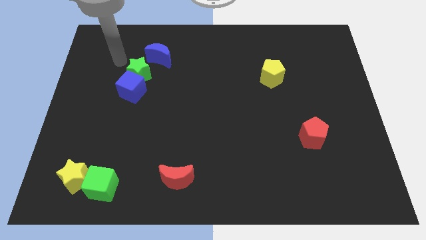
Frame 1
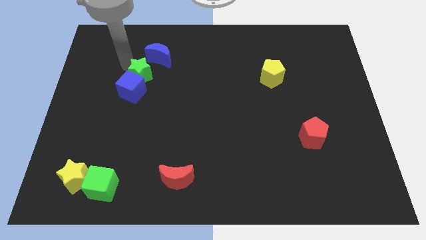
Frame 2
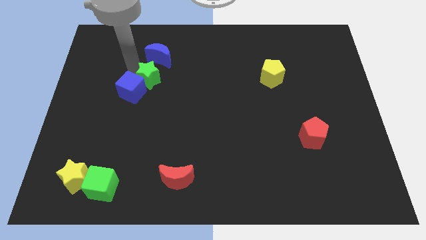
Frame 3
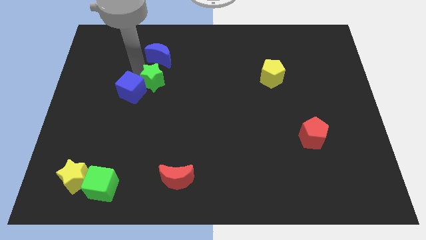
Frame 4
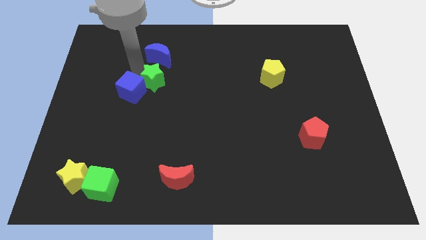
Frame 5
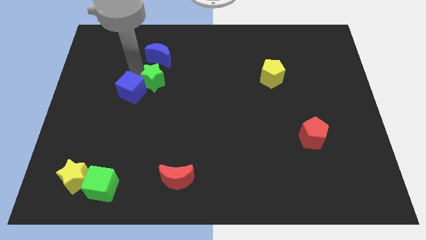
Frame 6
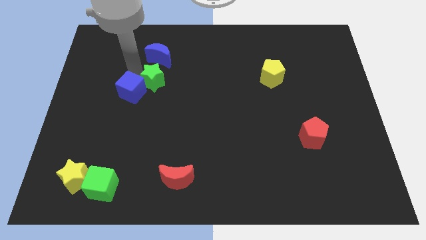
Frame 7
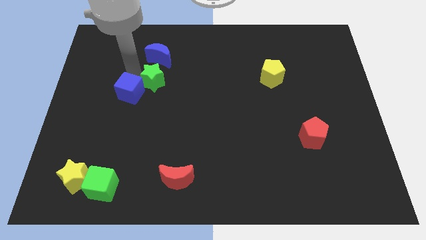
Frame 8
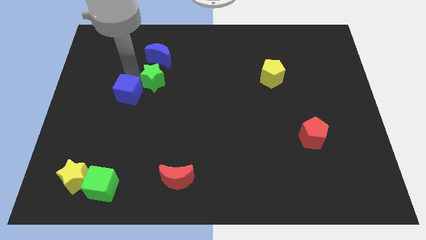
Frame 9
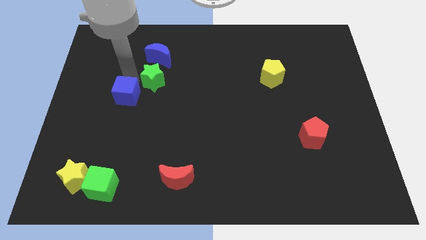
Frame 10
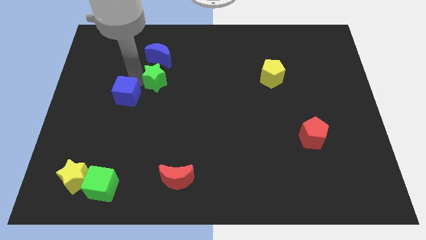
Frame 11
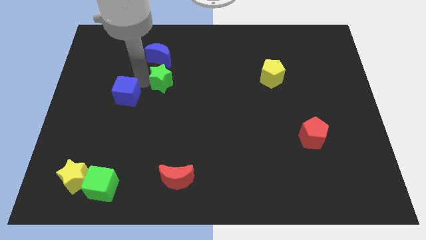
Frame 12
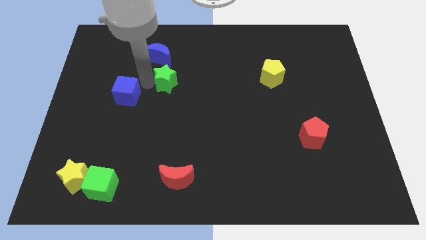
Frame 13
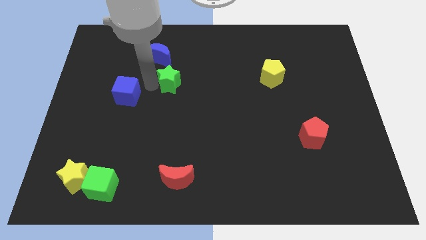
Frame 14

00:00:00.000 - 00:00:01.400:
pull the blue cube apart from the green star

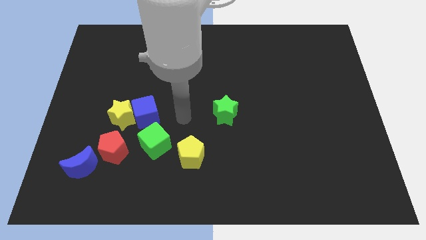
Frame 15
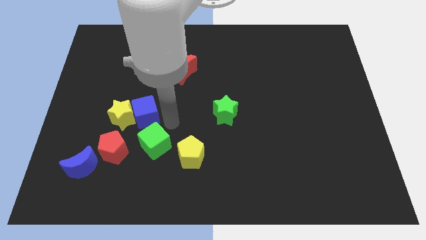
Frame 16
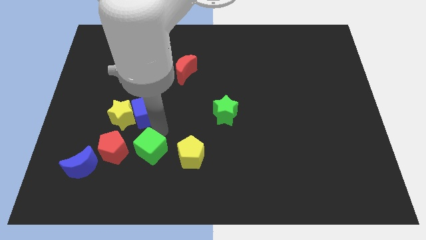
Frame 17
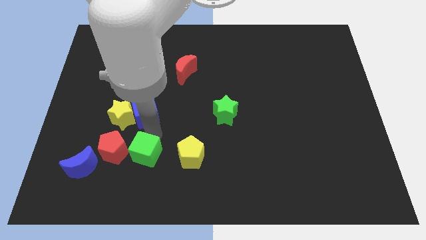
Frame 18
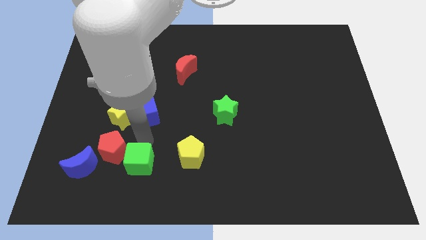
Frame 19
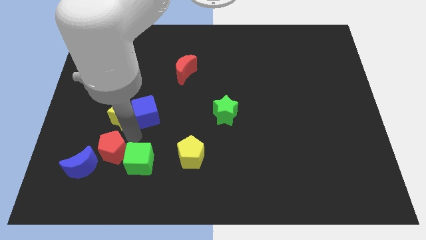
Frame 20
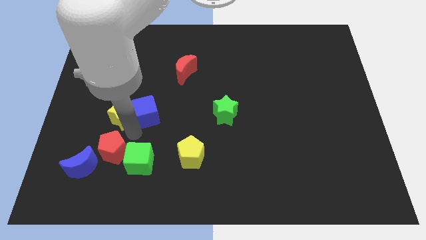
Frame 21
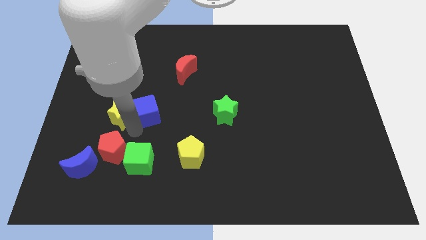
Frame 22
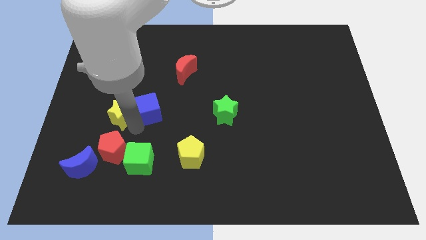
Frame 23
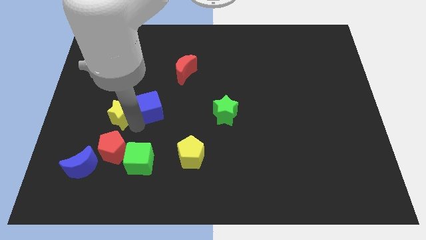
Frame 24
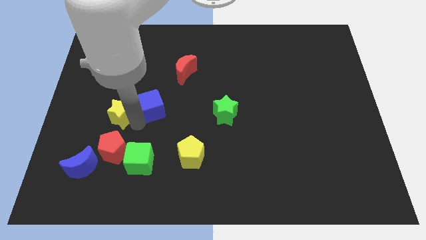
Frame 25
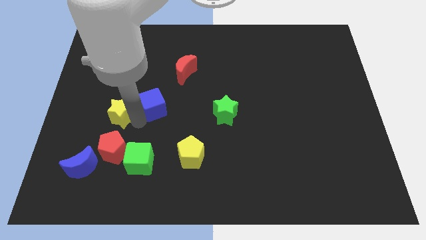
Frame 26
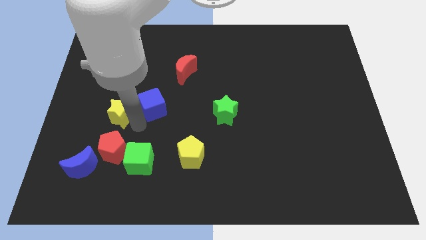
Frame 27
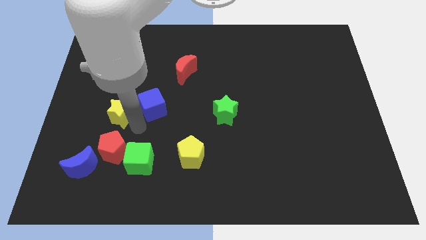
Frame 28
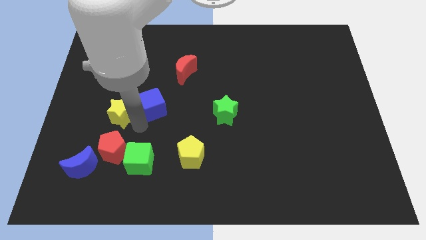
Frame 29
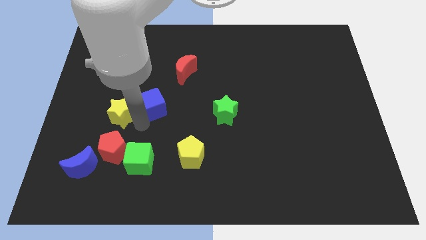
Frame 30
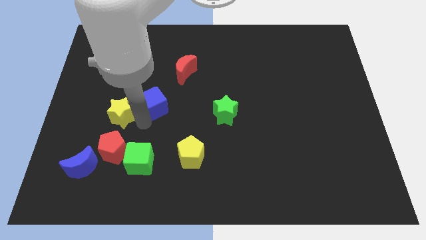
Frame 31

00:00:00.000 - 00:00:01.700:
separate the blue cube from the yellow star and green cube

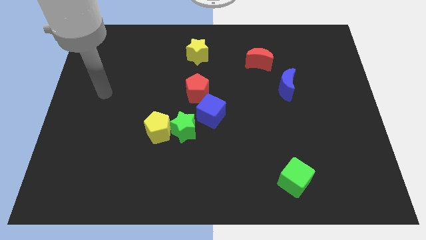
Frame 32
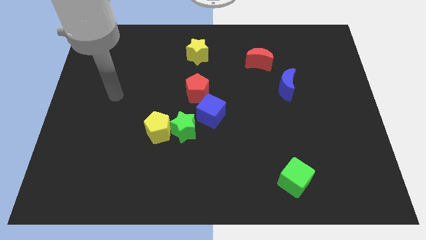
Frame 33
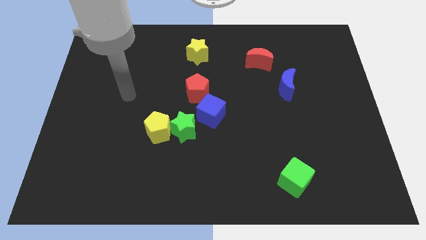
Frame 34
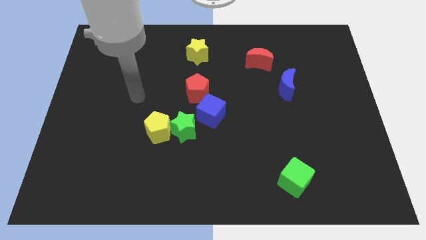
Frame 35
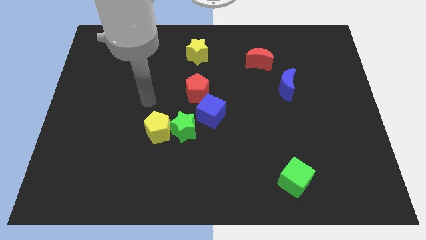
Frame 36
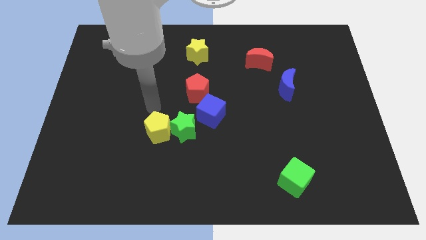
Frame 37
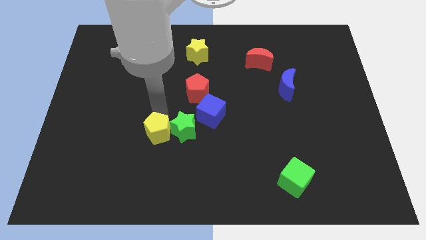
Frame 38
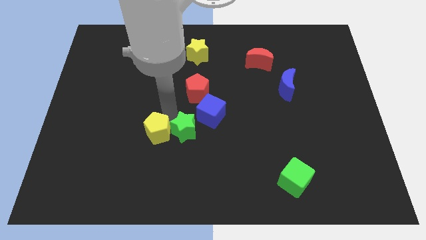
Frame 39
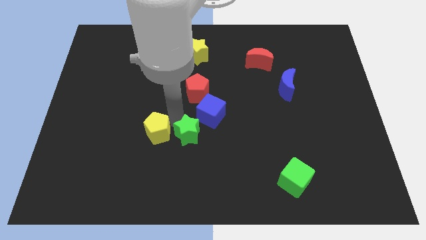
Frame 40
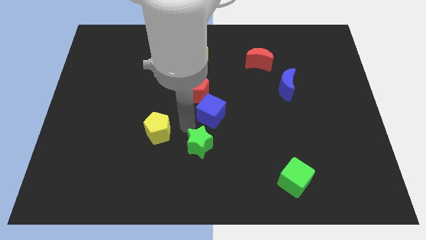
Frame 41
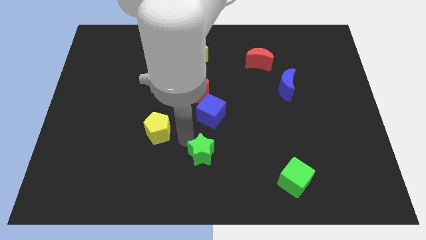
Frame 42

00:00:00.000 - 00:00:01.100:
move the yellow pentagon away from the green star

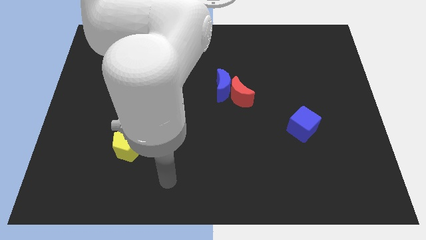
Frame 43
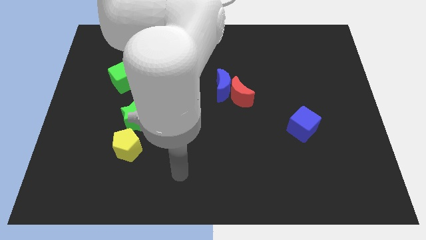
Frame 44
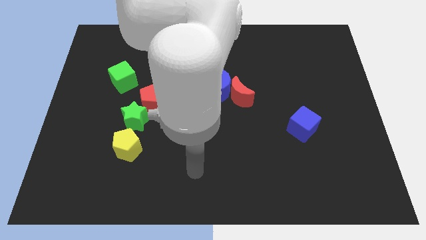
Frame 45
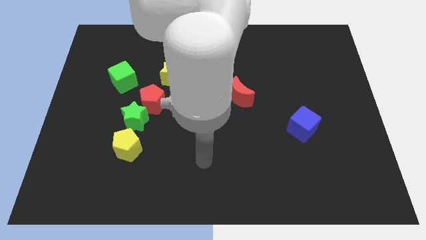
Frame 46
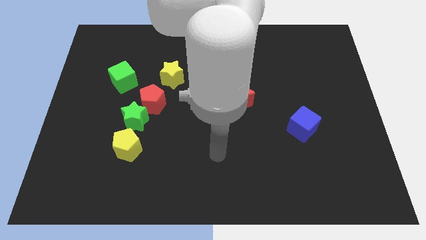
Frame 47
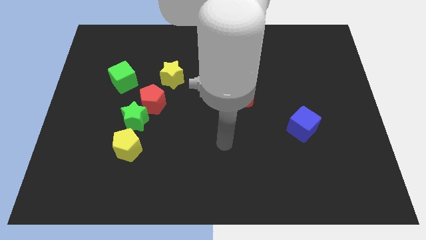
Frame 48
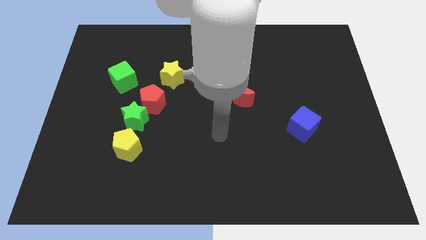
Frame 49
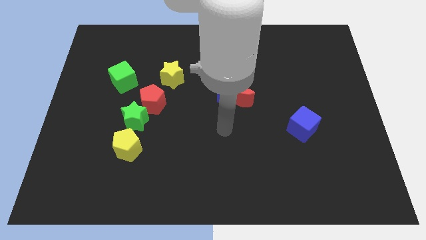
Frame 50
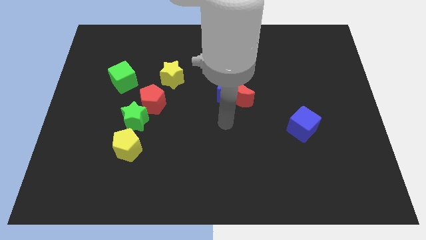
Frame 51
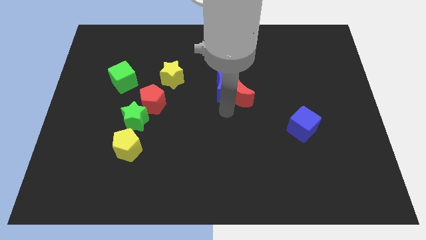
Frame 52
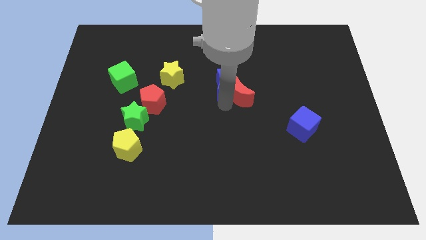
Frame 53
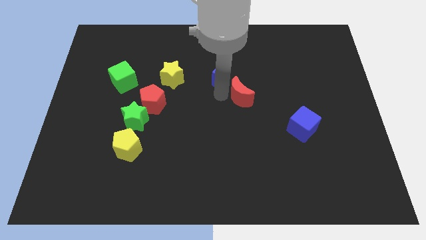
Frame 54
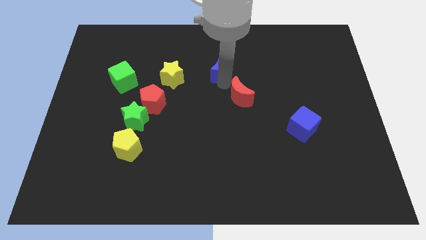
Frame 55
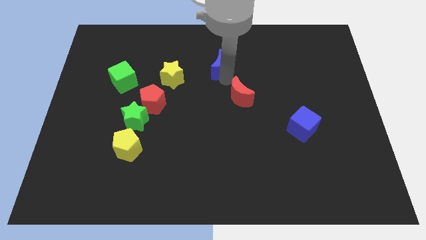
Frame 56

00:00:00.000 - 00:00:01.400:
pull the red moon apart from the blue moon

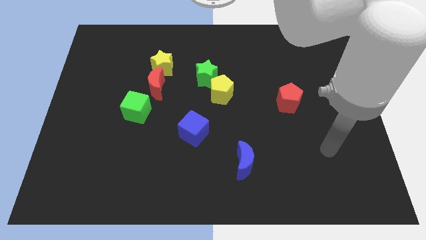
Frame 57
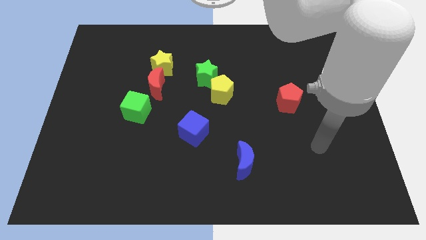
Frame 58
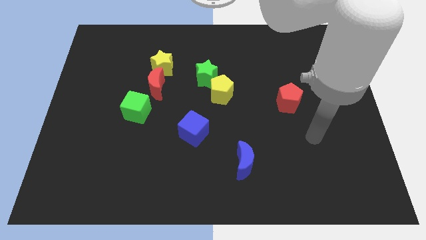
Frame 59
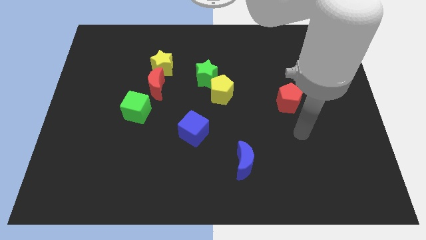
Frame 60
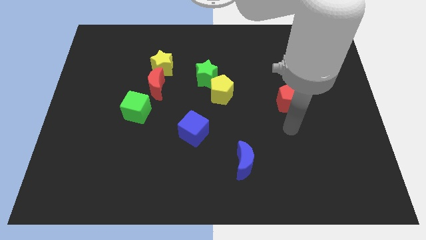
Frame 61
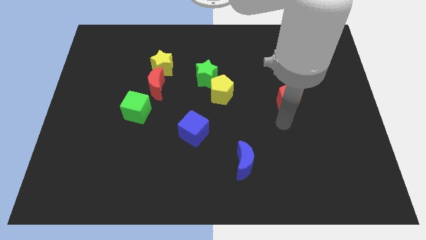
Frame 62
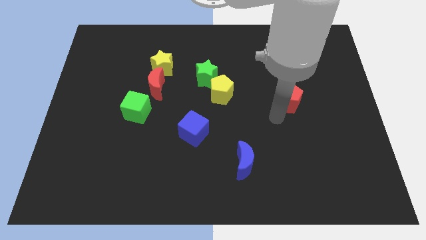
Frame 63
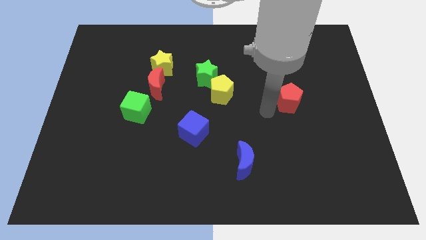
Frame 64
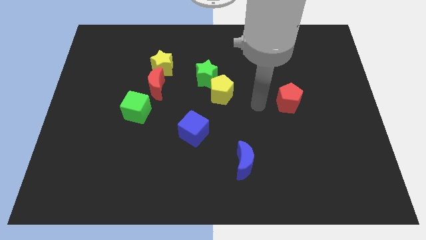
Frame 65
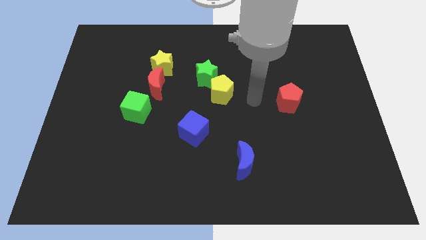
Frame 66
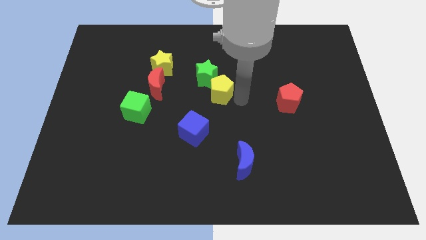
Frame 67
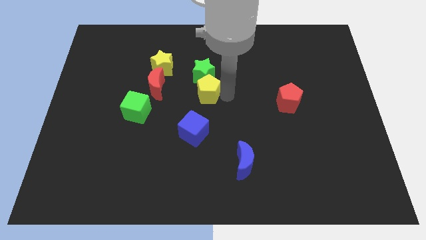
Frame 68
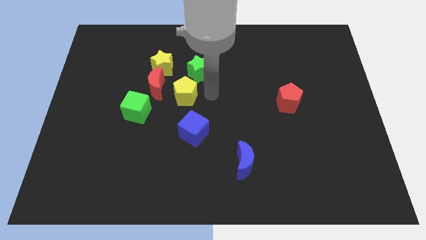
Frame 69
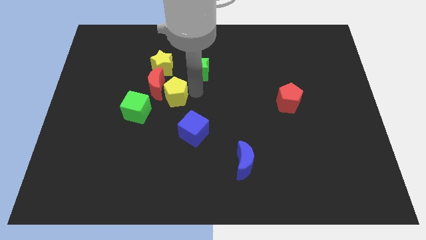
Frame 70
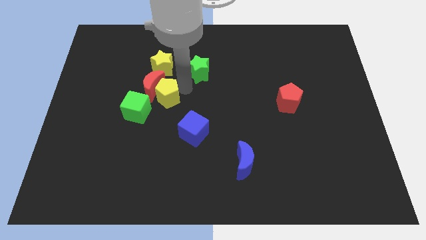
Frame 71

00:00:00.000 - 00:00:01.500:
pull the green star apart from the yellow pentagon

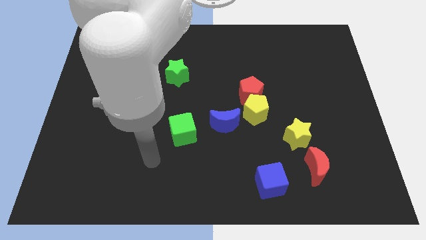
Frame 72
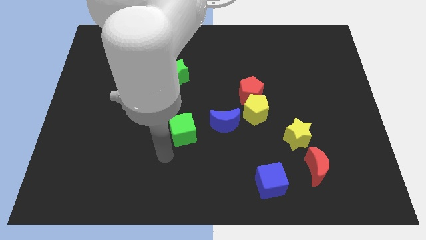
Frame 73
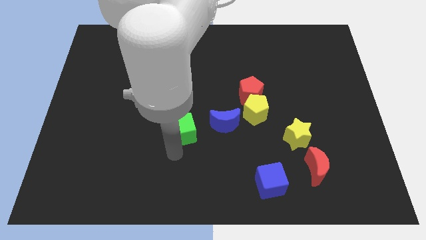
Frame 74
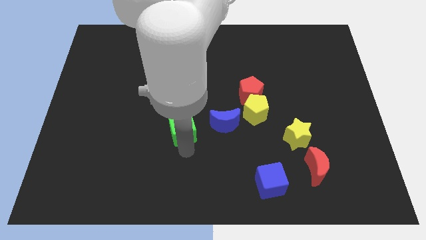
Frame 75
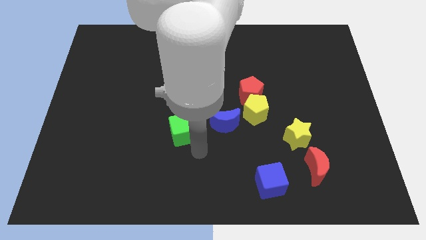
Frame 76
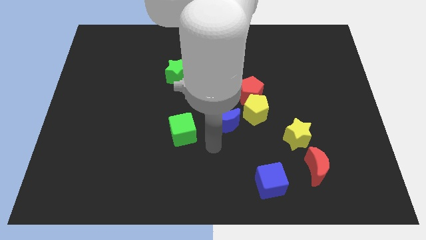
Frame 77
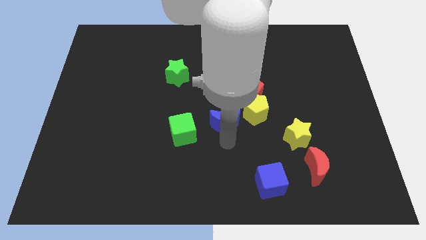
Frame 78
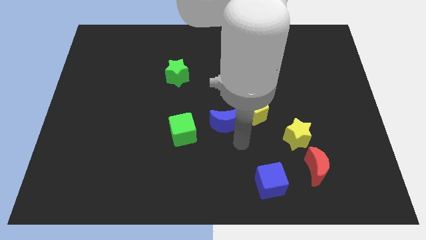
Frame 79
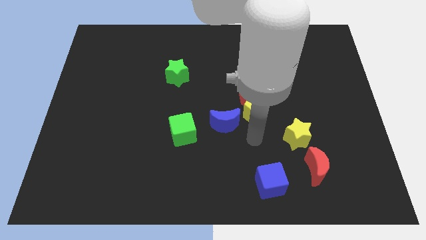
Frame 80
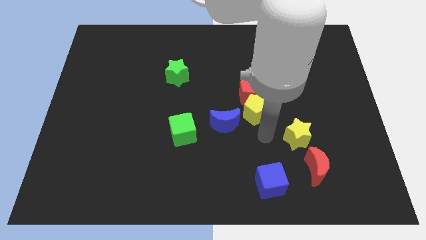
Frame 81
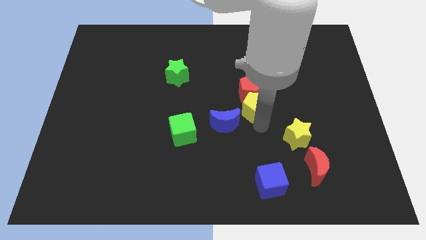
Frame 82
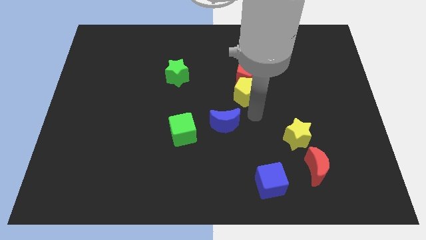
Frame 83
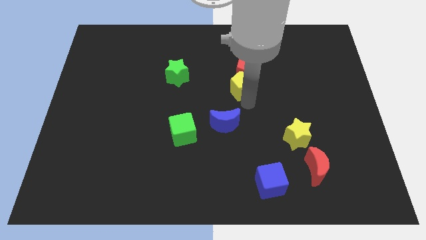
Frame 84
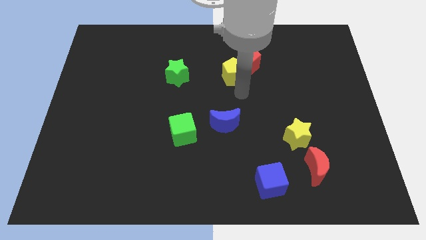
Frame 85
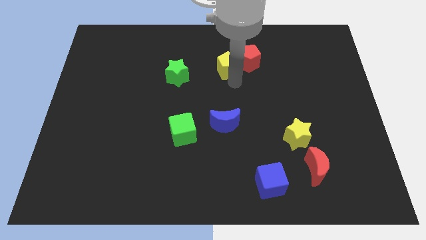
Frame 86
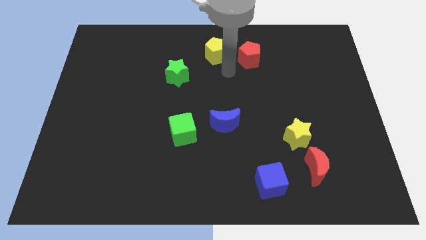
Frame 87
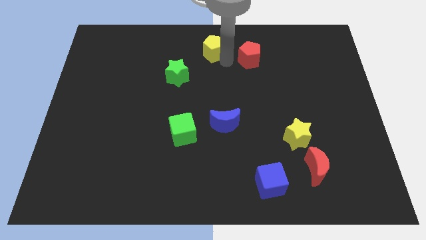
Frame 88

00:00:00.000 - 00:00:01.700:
move the red pentagon away from the yellow pentagon

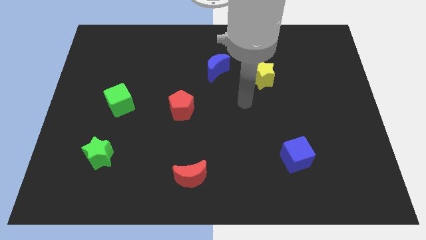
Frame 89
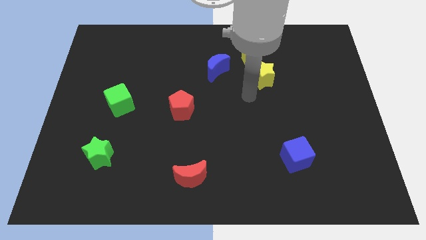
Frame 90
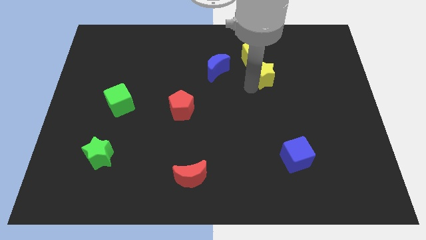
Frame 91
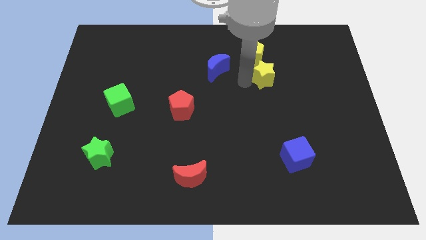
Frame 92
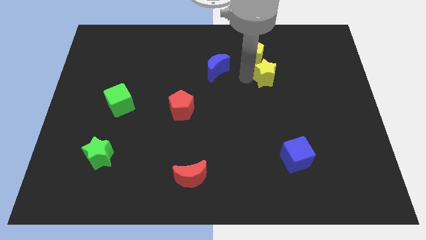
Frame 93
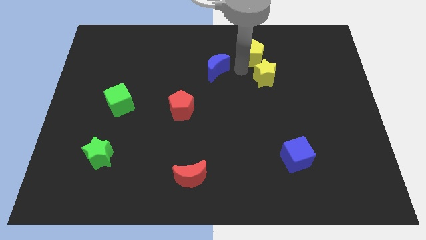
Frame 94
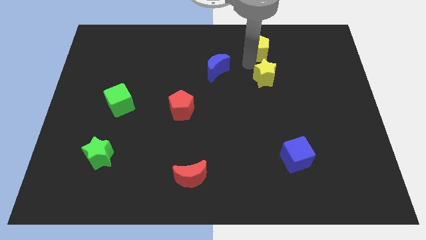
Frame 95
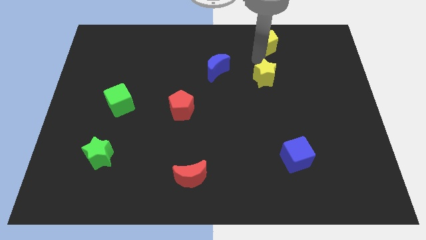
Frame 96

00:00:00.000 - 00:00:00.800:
pull the yellow star apart from the yellow pentagon
